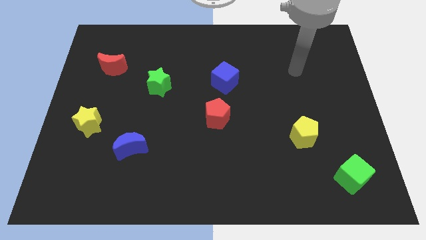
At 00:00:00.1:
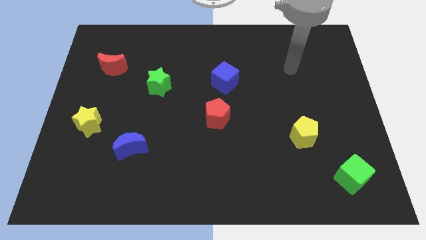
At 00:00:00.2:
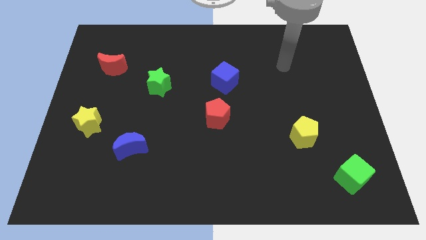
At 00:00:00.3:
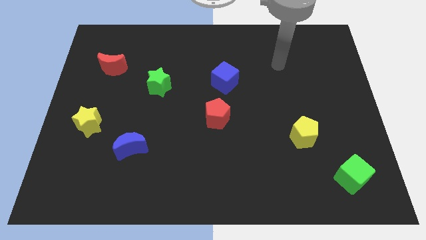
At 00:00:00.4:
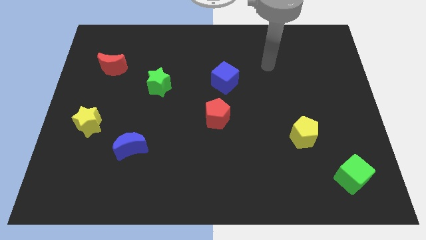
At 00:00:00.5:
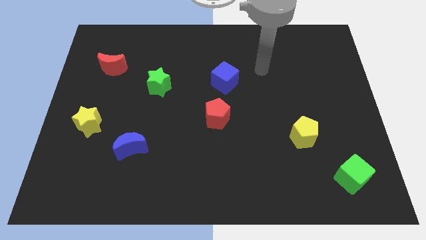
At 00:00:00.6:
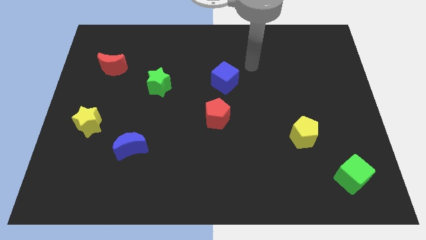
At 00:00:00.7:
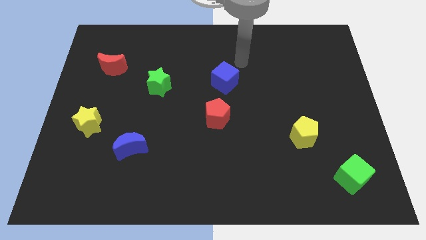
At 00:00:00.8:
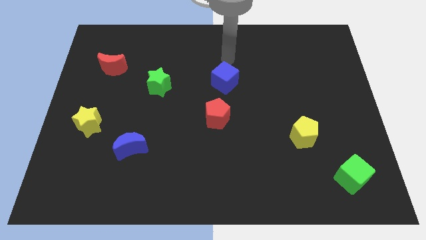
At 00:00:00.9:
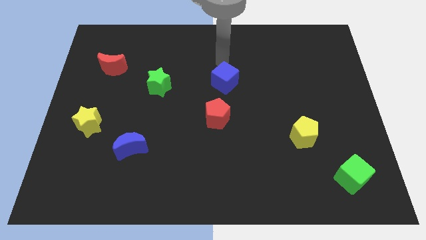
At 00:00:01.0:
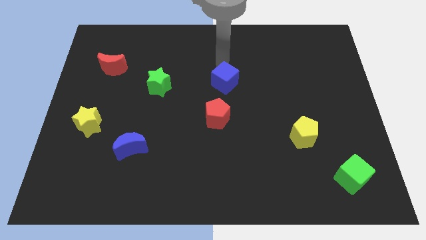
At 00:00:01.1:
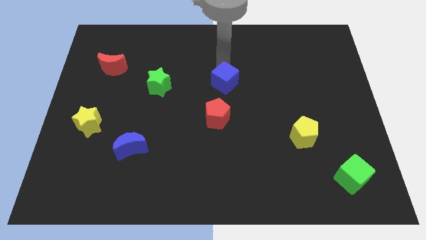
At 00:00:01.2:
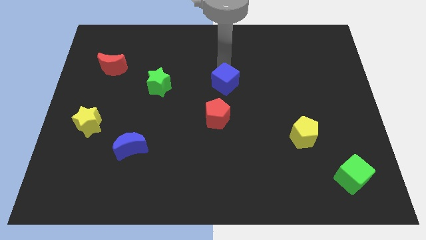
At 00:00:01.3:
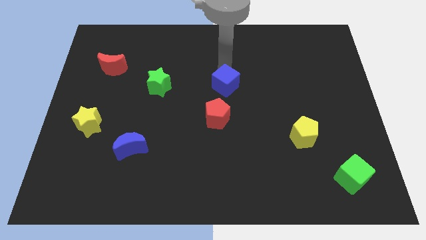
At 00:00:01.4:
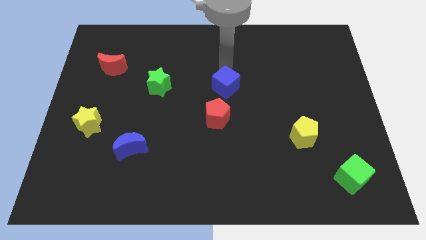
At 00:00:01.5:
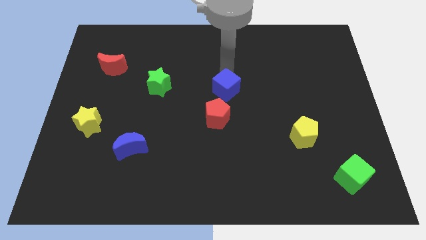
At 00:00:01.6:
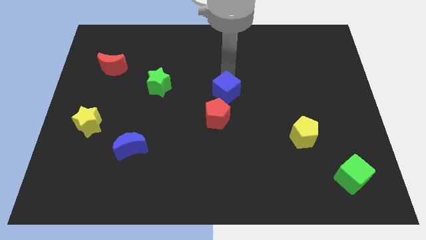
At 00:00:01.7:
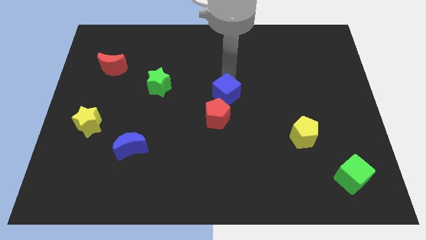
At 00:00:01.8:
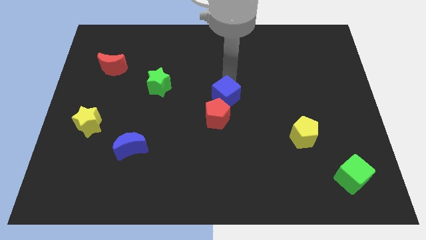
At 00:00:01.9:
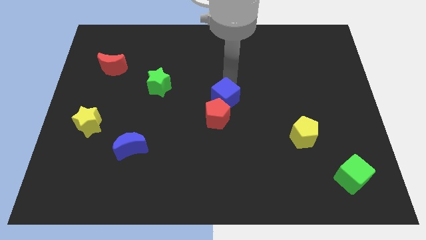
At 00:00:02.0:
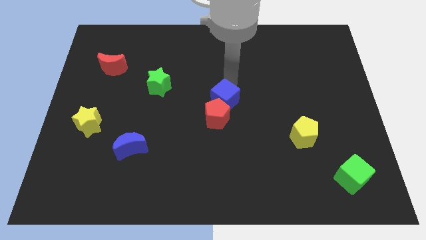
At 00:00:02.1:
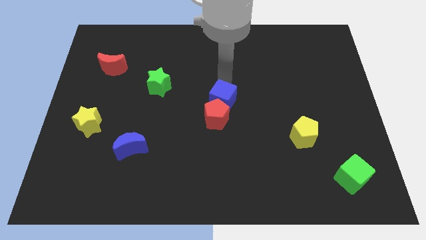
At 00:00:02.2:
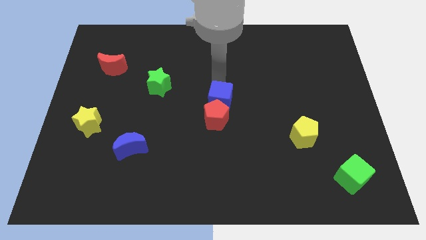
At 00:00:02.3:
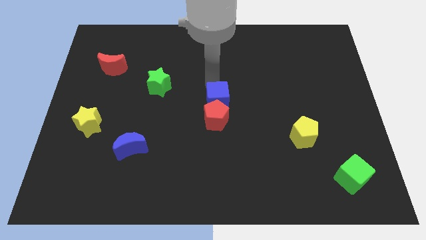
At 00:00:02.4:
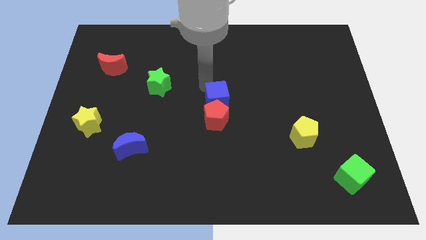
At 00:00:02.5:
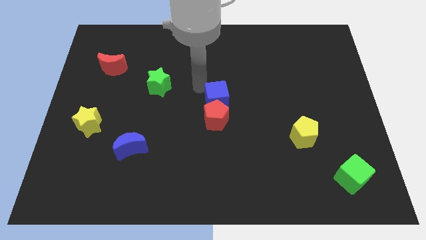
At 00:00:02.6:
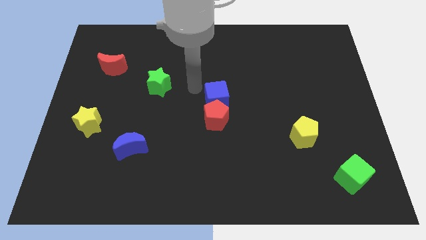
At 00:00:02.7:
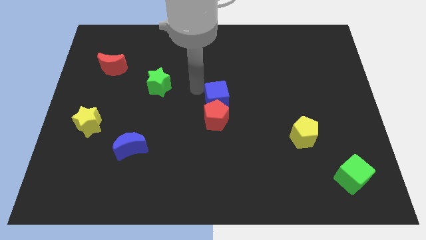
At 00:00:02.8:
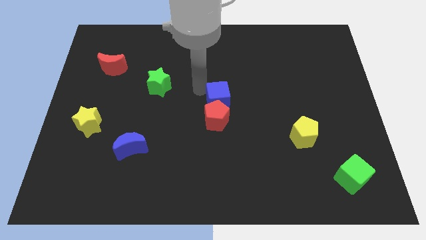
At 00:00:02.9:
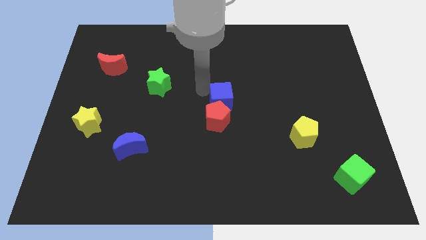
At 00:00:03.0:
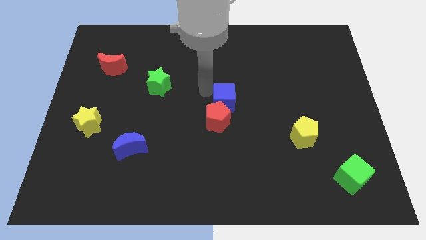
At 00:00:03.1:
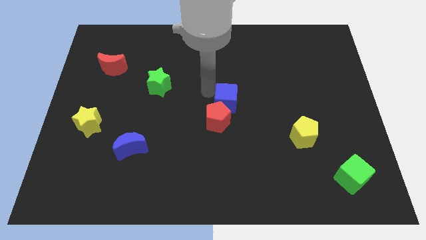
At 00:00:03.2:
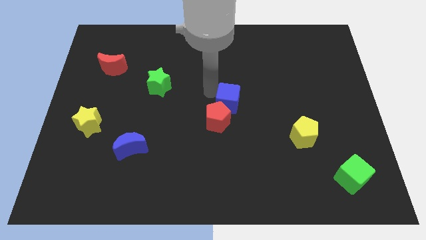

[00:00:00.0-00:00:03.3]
move the blue cube somewhat downwards

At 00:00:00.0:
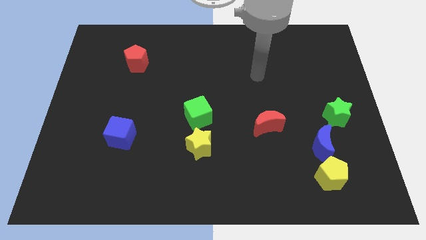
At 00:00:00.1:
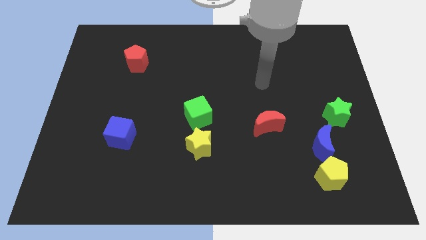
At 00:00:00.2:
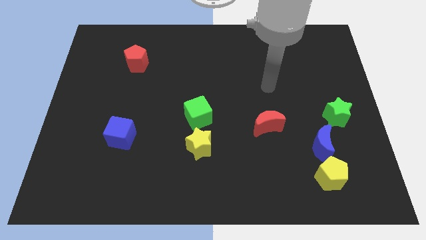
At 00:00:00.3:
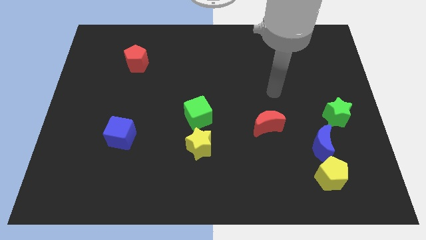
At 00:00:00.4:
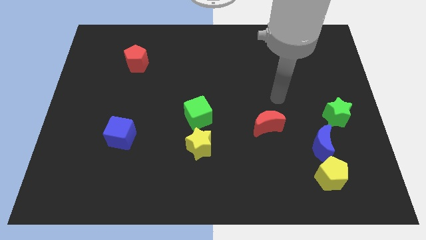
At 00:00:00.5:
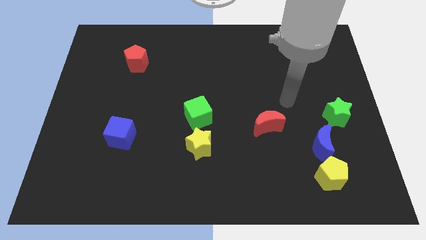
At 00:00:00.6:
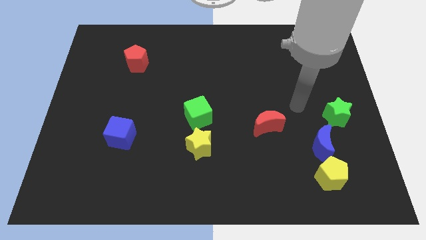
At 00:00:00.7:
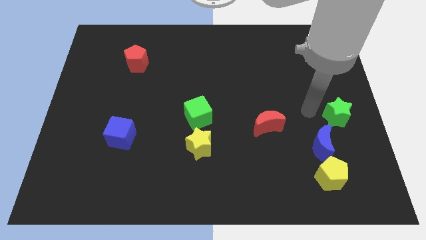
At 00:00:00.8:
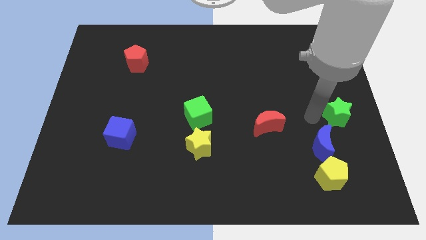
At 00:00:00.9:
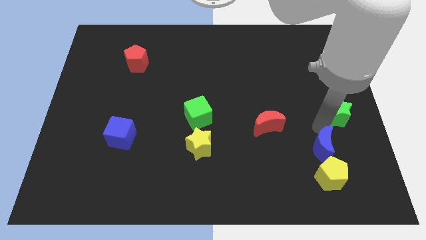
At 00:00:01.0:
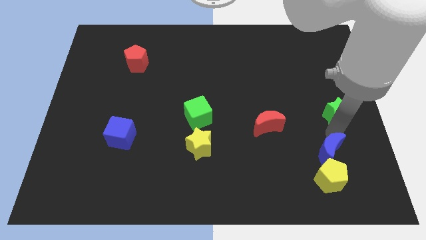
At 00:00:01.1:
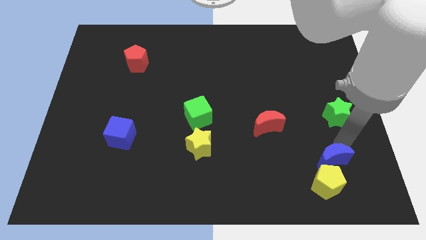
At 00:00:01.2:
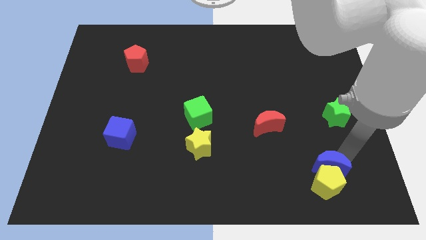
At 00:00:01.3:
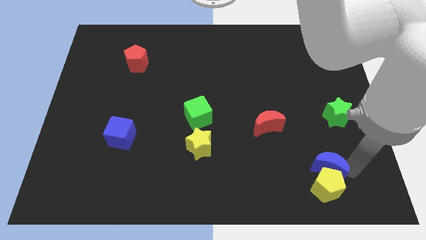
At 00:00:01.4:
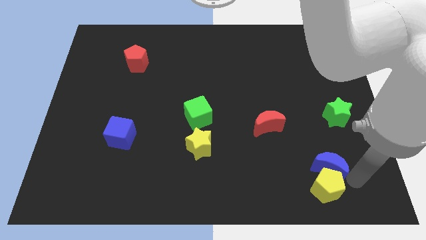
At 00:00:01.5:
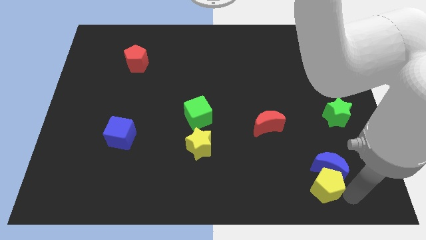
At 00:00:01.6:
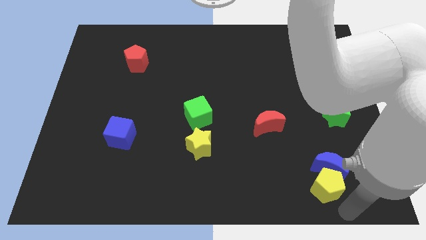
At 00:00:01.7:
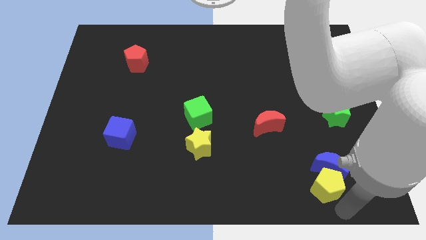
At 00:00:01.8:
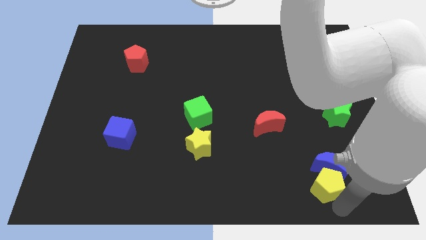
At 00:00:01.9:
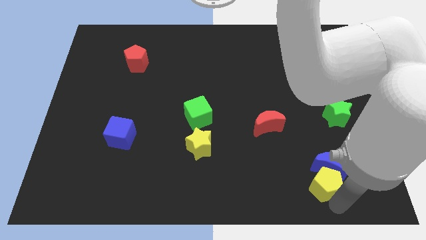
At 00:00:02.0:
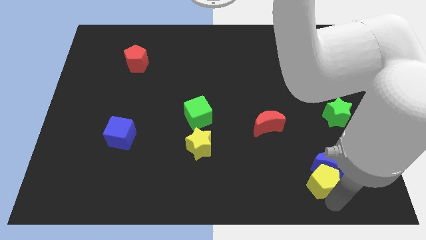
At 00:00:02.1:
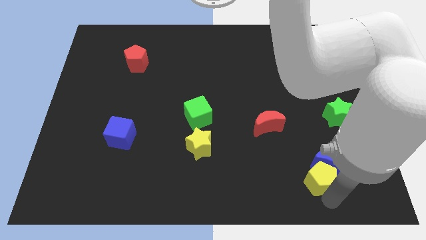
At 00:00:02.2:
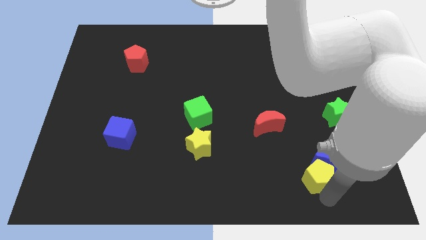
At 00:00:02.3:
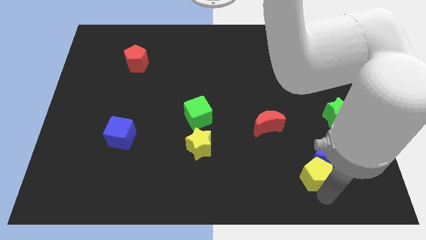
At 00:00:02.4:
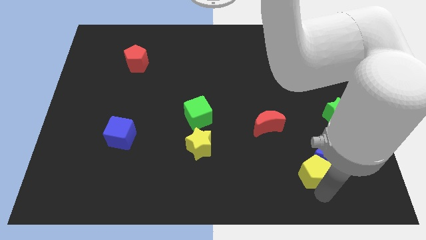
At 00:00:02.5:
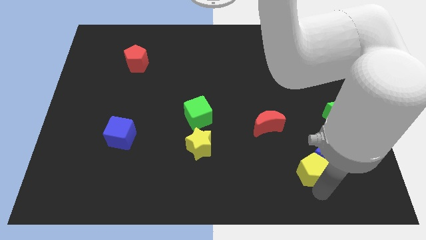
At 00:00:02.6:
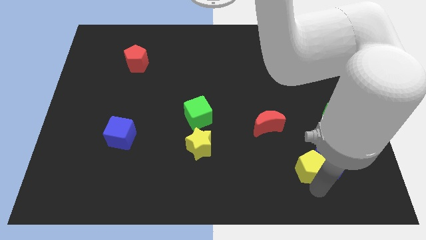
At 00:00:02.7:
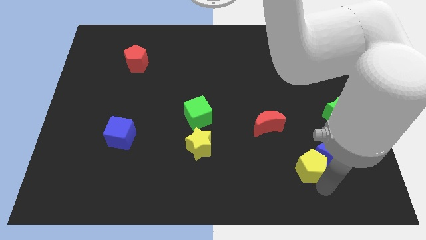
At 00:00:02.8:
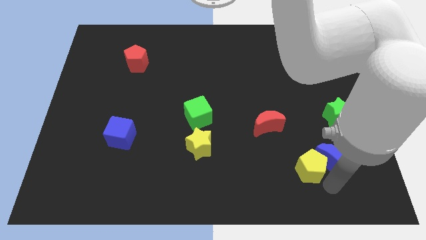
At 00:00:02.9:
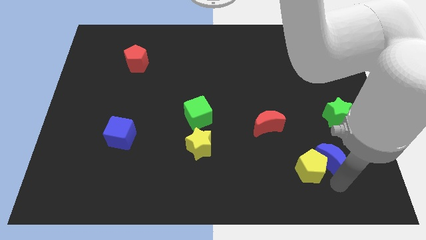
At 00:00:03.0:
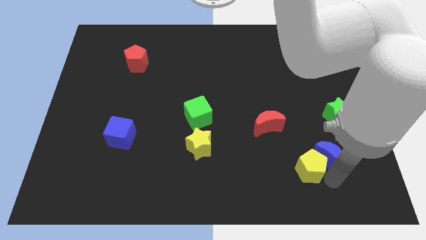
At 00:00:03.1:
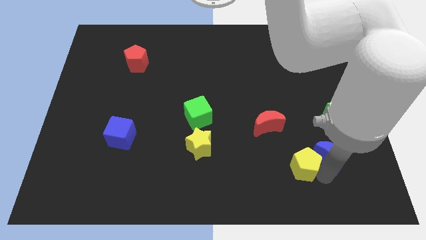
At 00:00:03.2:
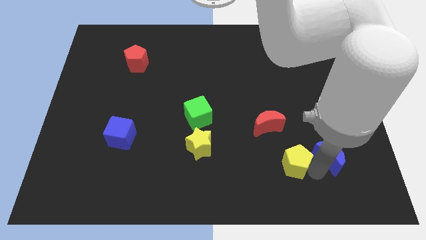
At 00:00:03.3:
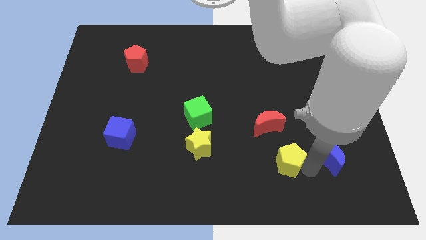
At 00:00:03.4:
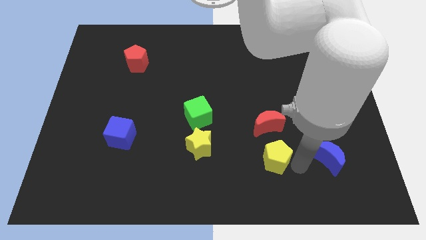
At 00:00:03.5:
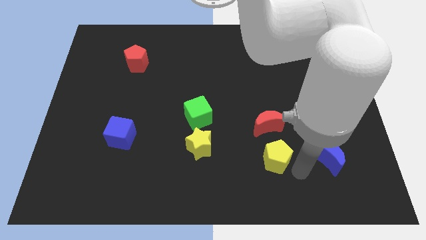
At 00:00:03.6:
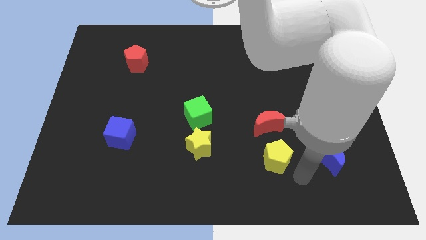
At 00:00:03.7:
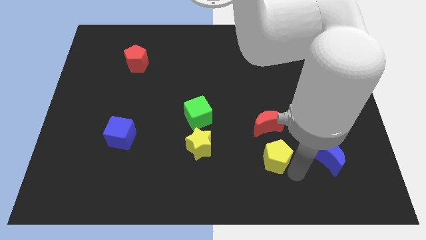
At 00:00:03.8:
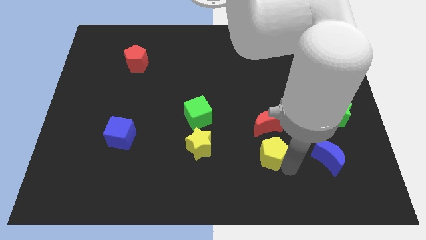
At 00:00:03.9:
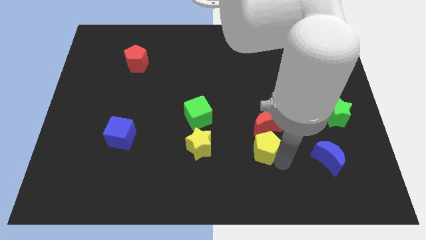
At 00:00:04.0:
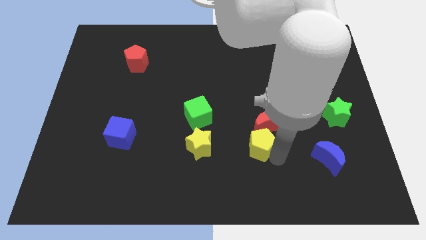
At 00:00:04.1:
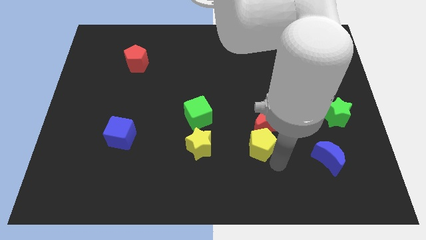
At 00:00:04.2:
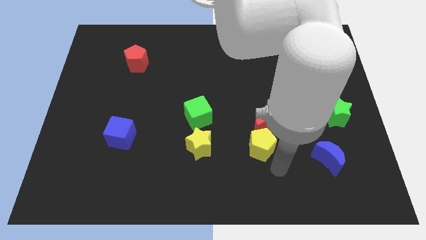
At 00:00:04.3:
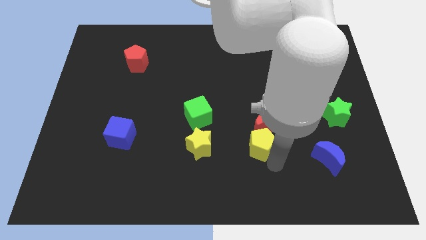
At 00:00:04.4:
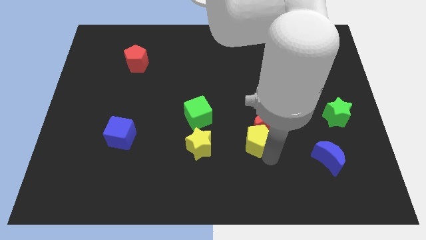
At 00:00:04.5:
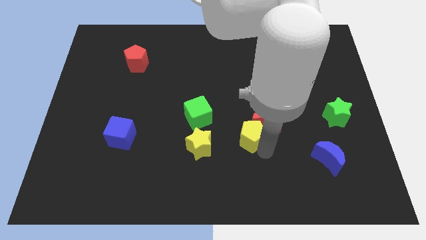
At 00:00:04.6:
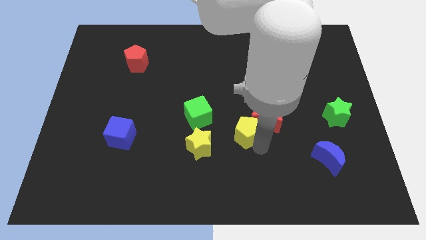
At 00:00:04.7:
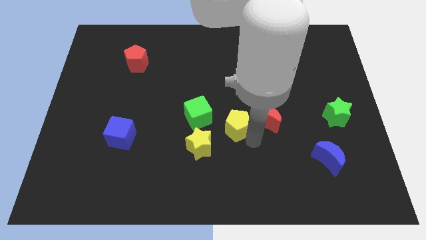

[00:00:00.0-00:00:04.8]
move the yellow pentagon upwards and left diagonally
